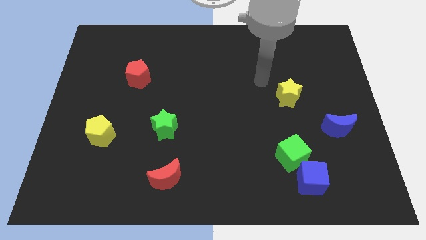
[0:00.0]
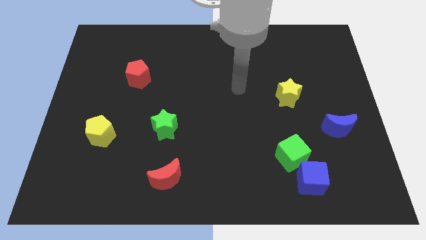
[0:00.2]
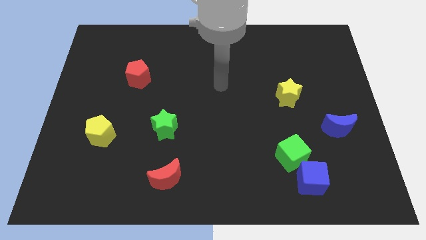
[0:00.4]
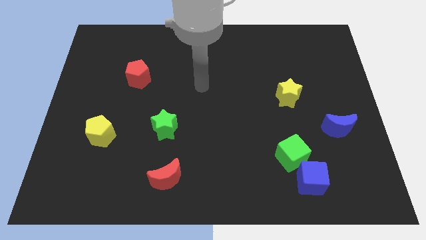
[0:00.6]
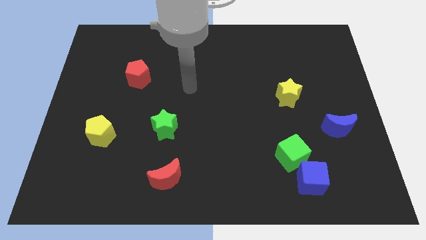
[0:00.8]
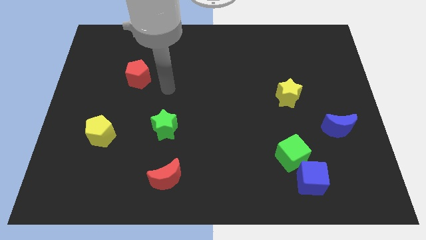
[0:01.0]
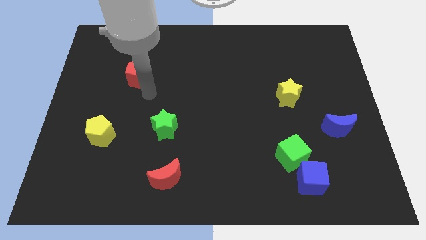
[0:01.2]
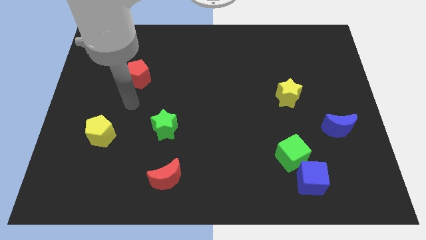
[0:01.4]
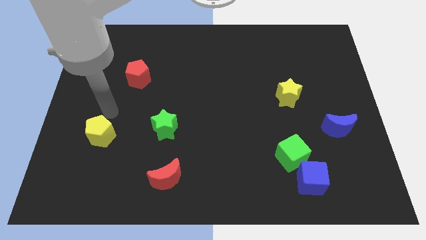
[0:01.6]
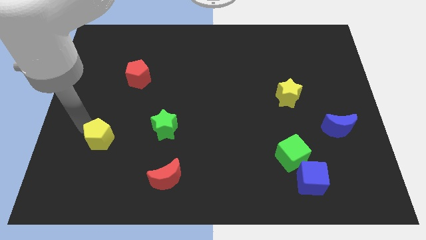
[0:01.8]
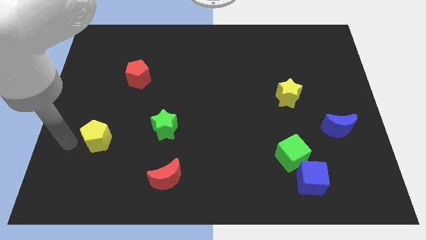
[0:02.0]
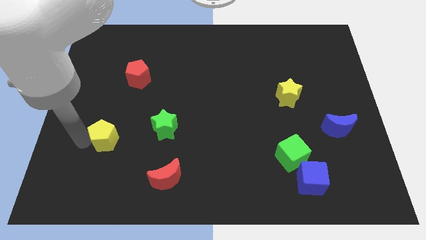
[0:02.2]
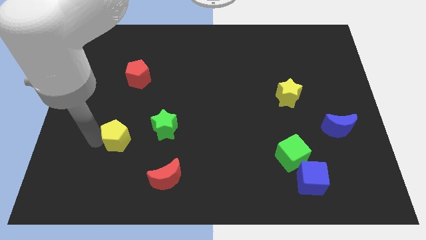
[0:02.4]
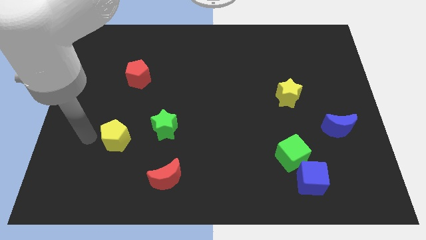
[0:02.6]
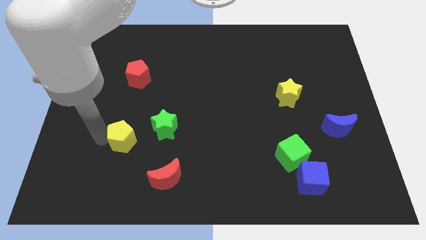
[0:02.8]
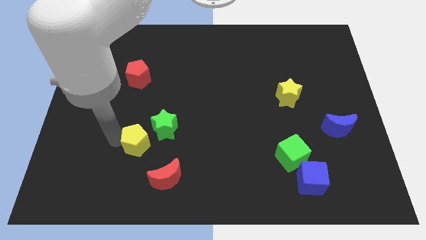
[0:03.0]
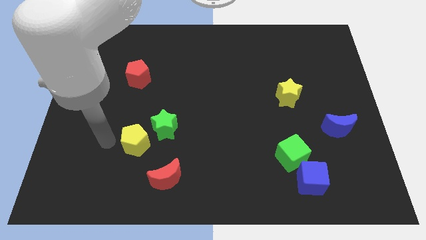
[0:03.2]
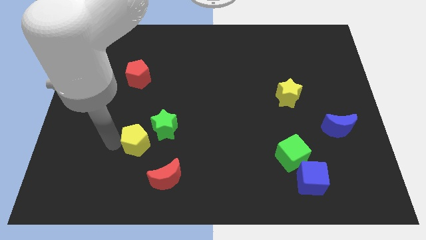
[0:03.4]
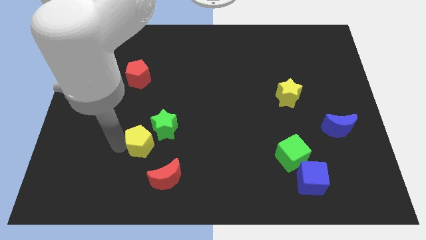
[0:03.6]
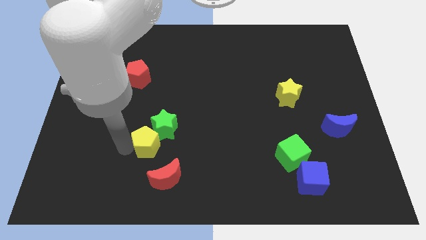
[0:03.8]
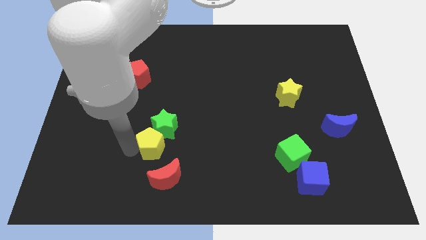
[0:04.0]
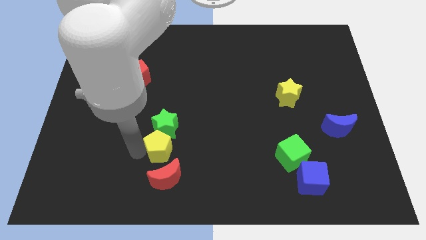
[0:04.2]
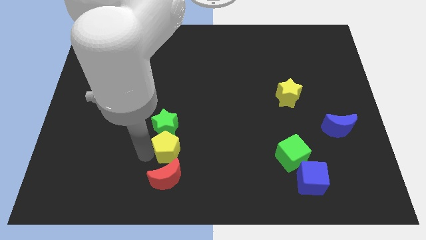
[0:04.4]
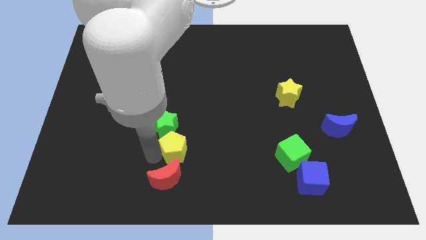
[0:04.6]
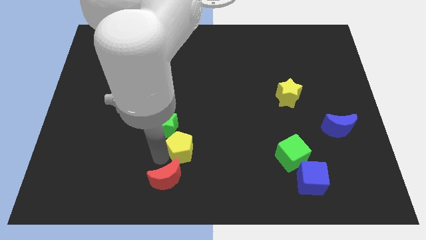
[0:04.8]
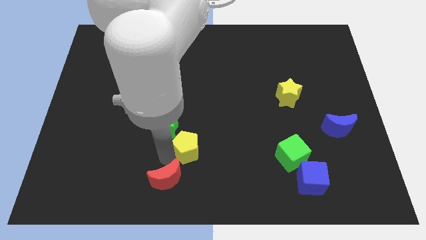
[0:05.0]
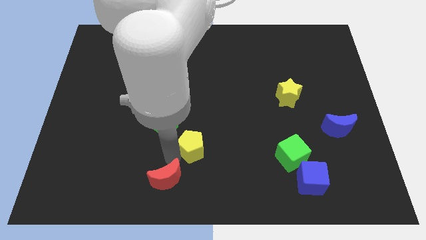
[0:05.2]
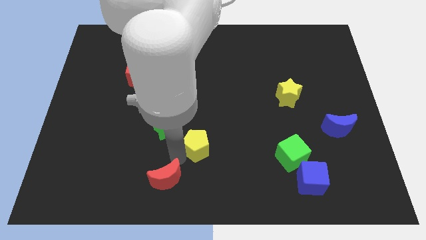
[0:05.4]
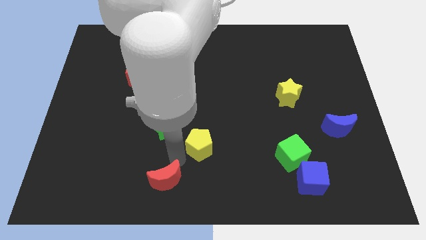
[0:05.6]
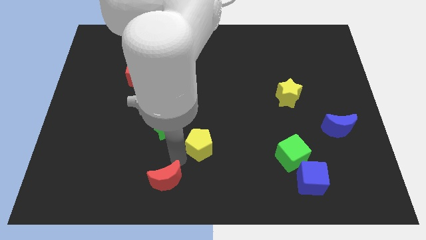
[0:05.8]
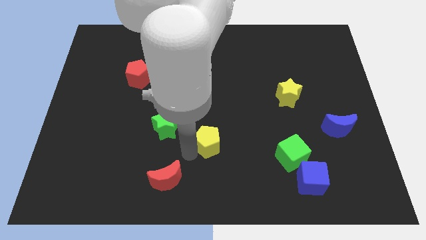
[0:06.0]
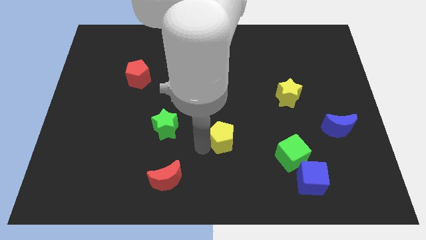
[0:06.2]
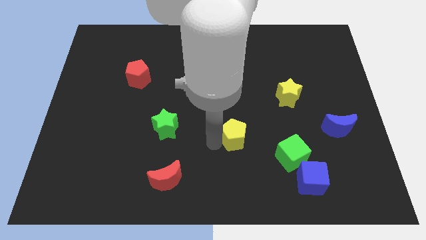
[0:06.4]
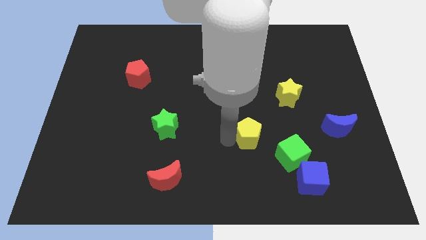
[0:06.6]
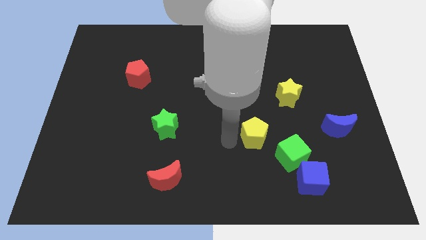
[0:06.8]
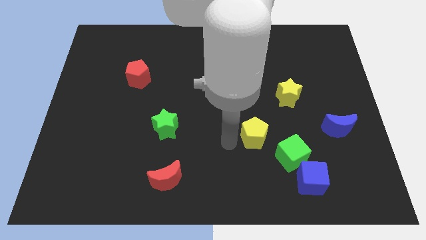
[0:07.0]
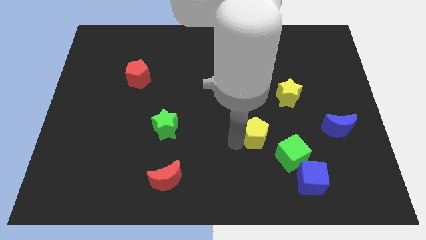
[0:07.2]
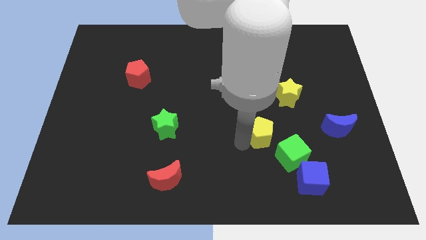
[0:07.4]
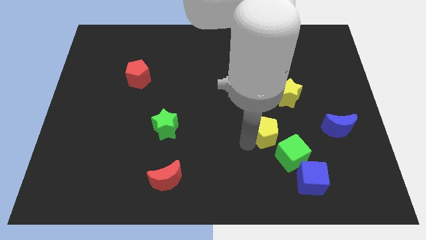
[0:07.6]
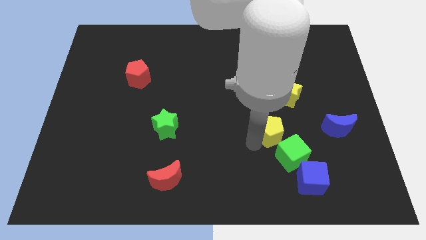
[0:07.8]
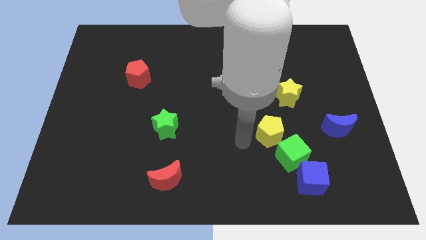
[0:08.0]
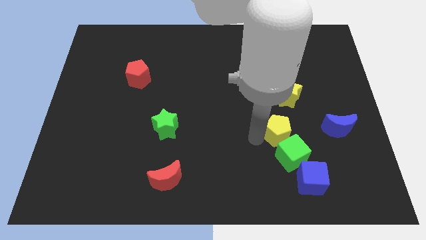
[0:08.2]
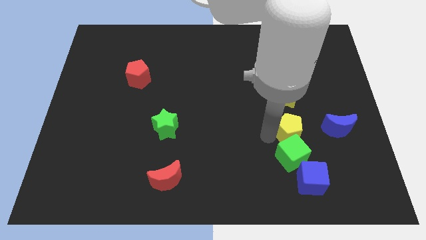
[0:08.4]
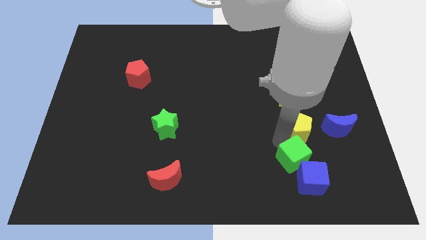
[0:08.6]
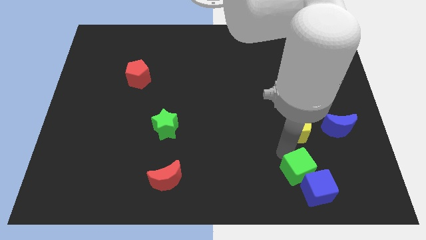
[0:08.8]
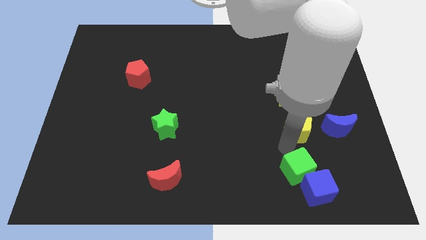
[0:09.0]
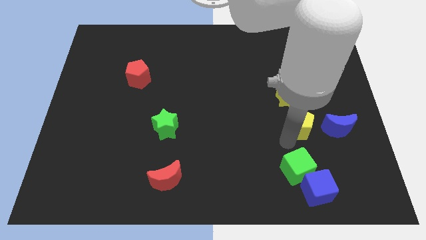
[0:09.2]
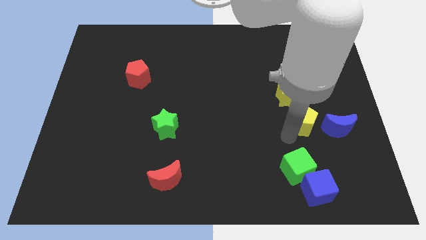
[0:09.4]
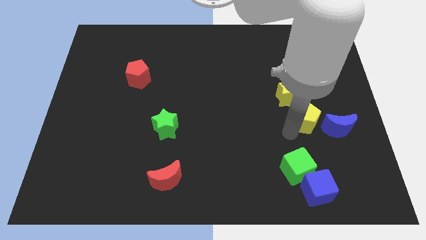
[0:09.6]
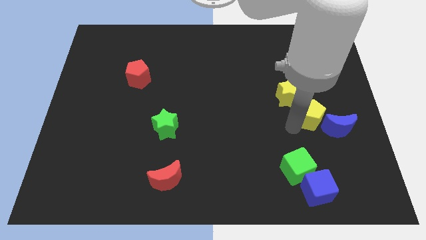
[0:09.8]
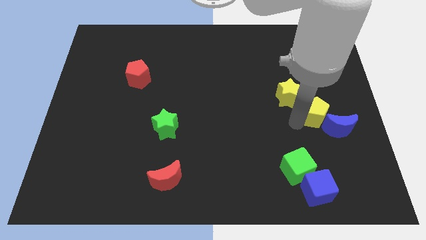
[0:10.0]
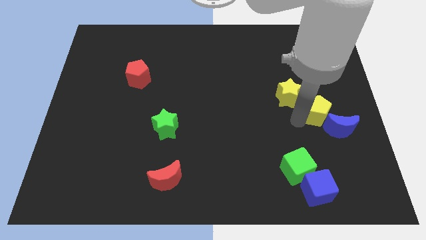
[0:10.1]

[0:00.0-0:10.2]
put the yellow pentagon to the top side of the blue moon

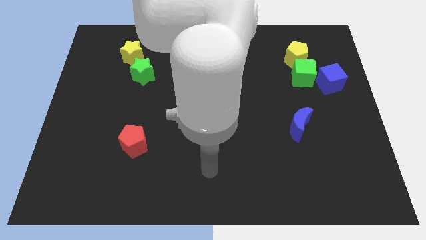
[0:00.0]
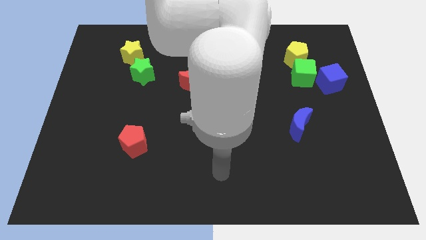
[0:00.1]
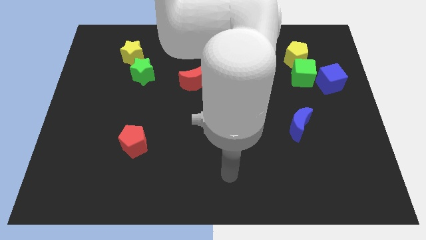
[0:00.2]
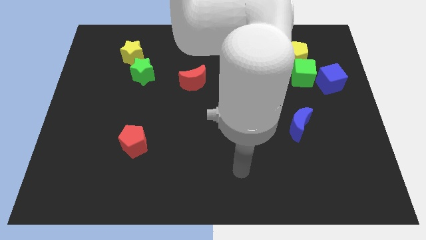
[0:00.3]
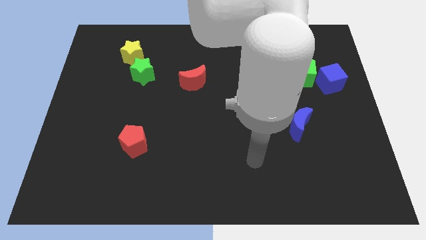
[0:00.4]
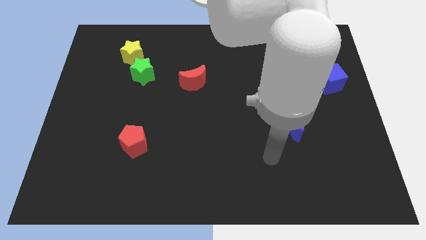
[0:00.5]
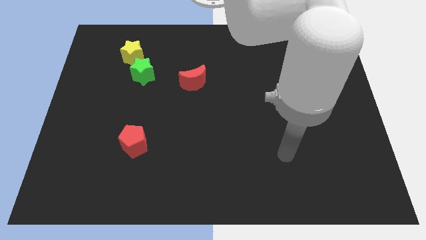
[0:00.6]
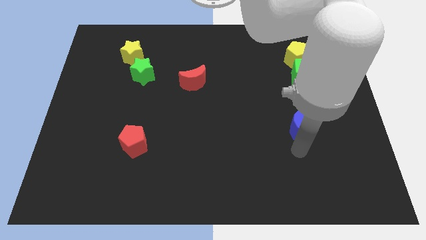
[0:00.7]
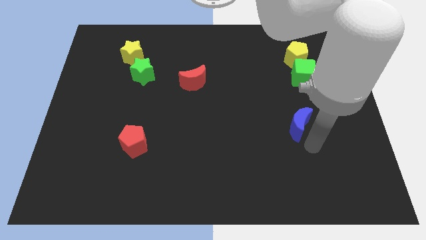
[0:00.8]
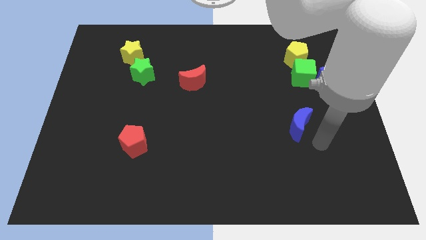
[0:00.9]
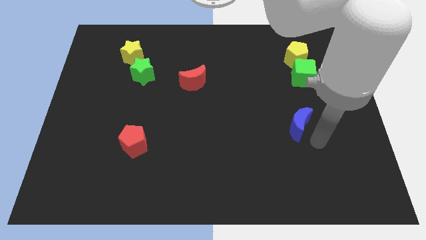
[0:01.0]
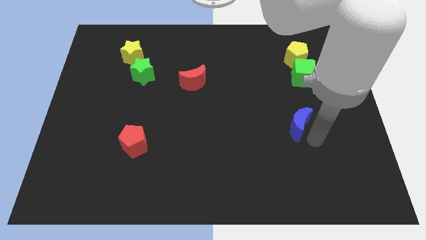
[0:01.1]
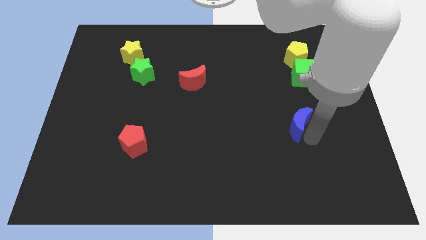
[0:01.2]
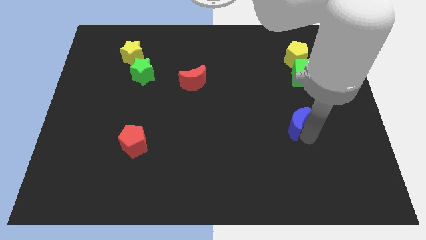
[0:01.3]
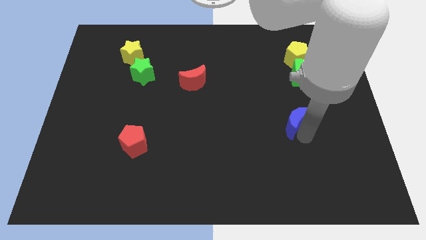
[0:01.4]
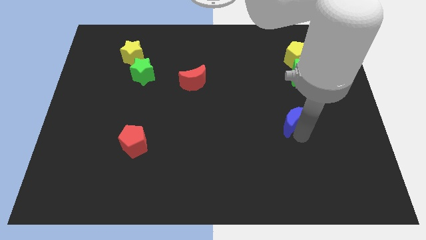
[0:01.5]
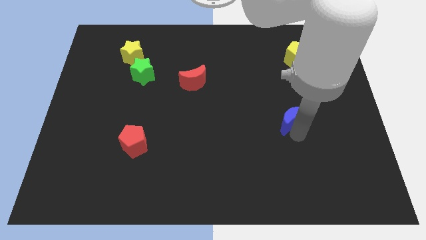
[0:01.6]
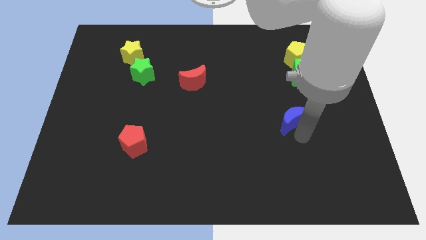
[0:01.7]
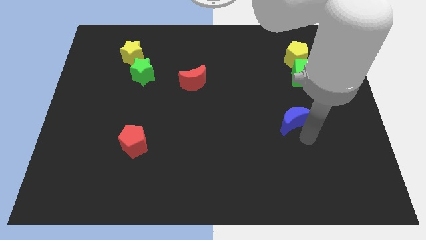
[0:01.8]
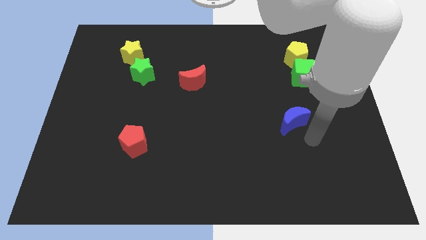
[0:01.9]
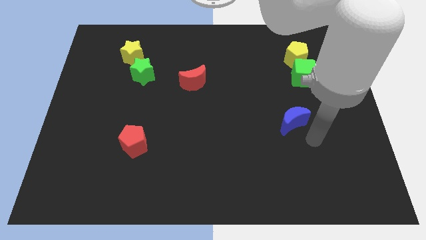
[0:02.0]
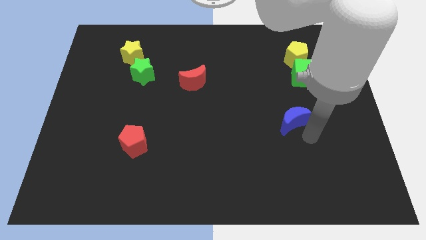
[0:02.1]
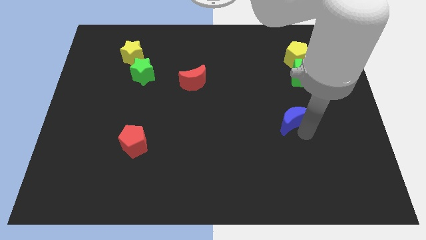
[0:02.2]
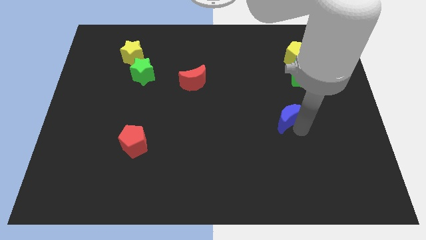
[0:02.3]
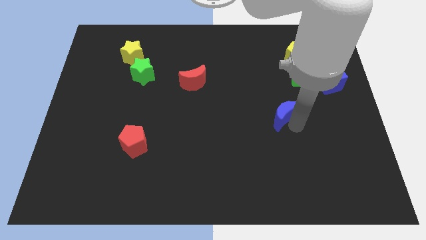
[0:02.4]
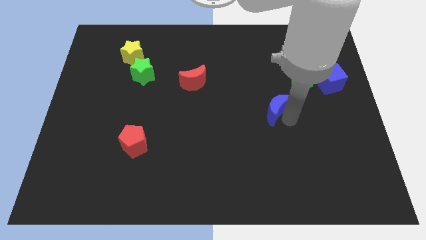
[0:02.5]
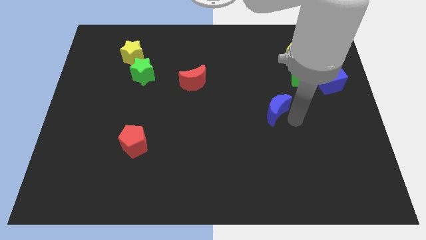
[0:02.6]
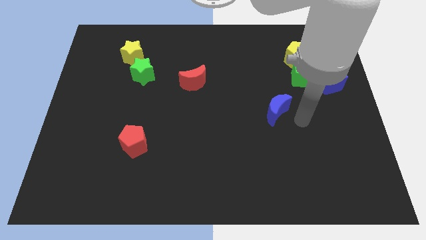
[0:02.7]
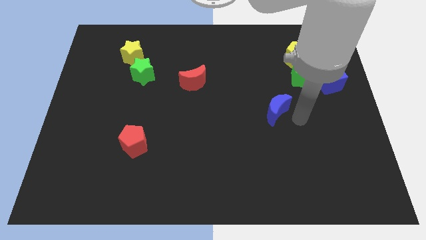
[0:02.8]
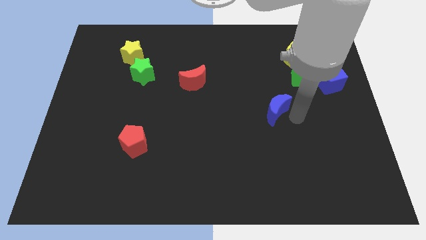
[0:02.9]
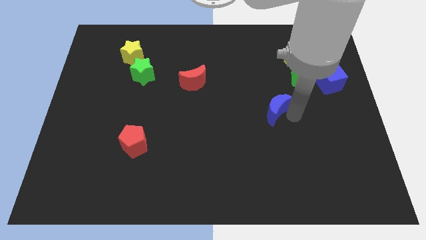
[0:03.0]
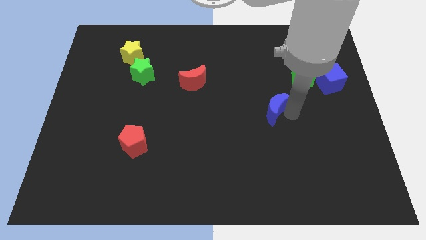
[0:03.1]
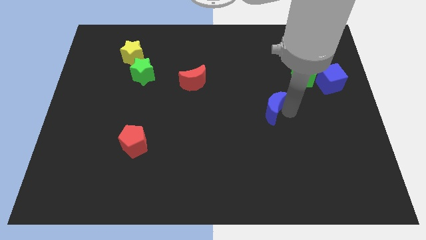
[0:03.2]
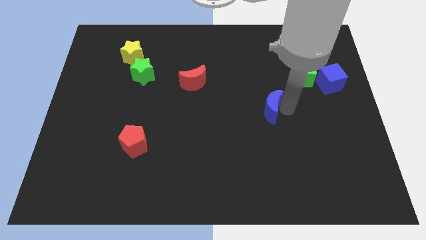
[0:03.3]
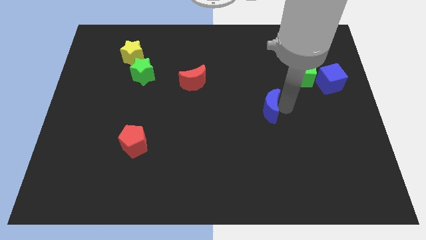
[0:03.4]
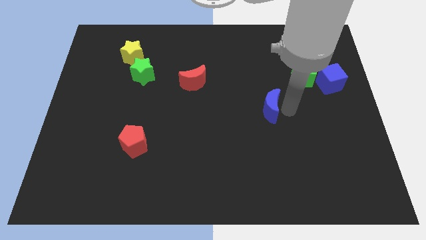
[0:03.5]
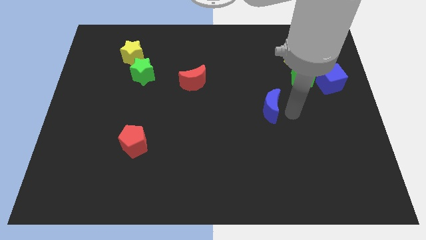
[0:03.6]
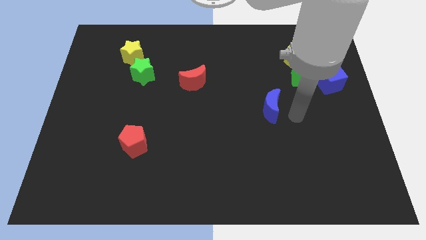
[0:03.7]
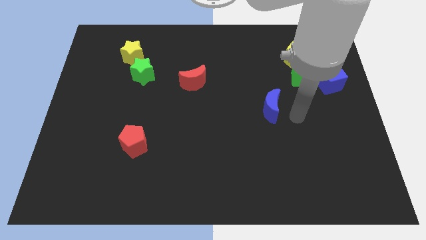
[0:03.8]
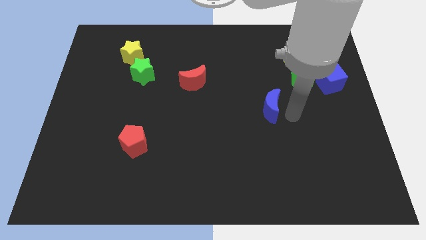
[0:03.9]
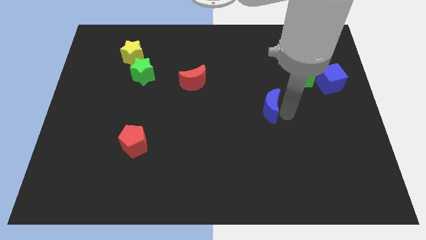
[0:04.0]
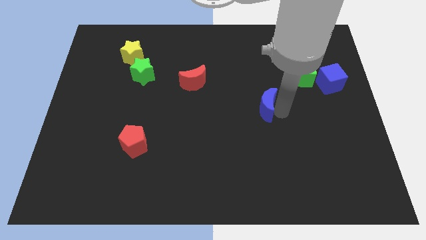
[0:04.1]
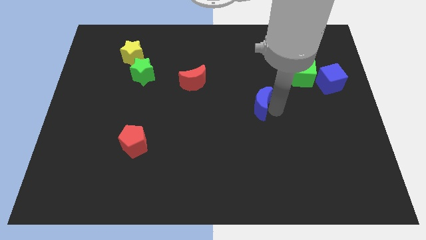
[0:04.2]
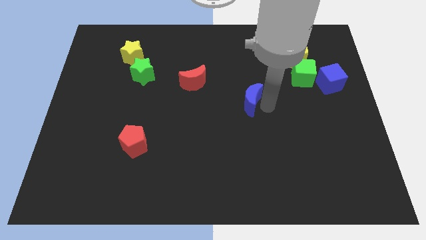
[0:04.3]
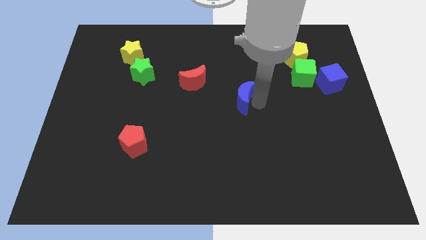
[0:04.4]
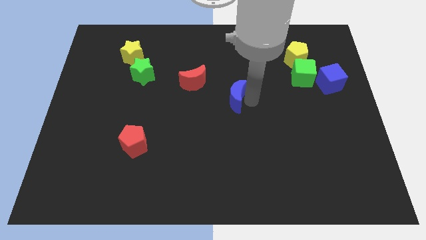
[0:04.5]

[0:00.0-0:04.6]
slide the blue moon to the bottom right side of the red moon
